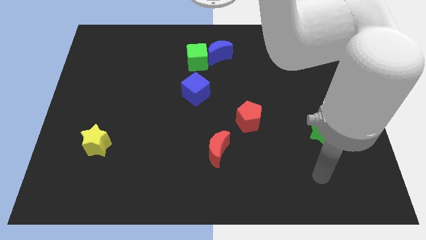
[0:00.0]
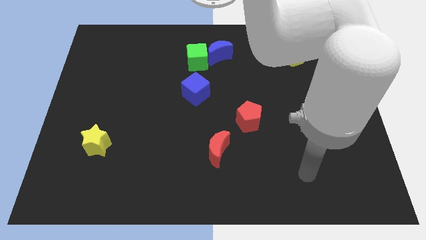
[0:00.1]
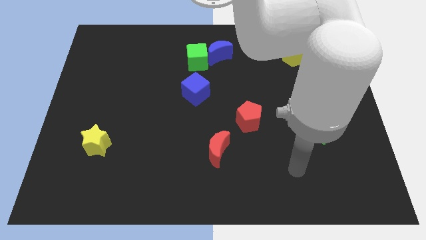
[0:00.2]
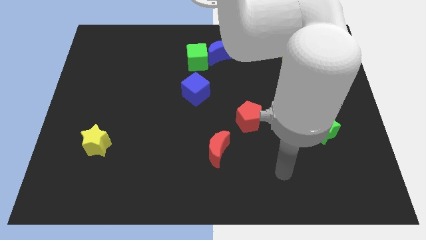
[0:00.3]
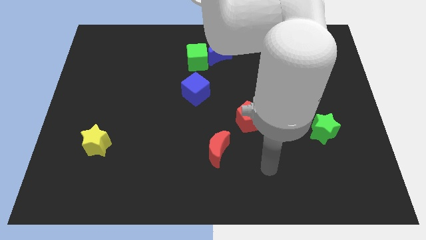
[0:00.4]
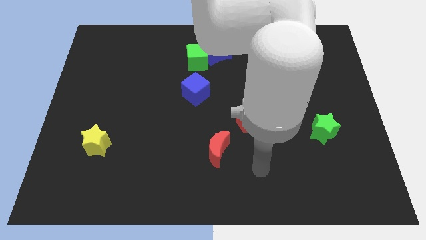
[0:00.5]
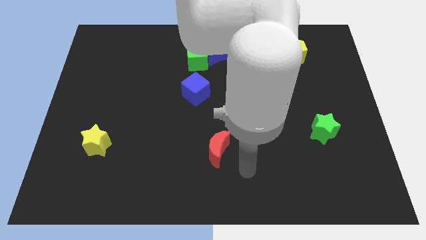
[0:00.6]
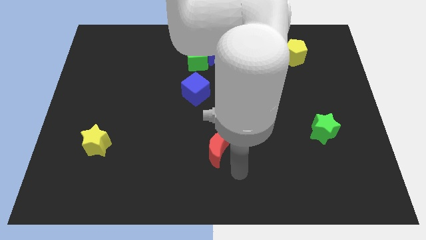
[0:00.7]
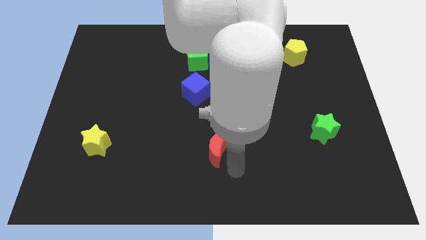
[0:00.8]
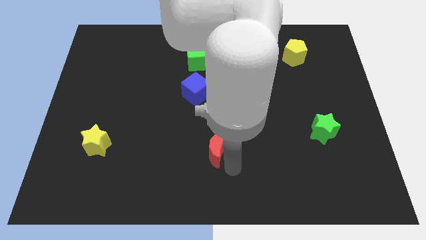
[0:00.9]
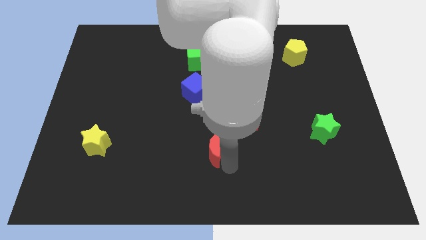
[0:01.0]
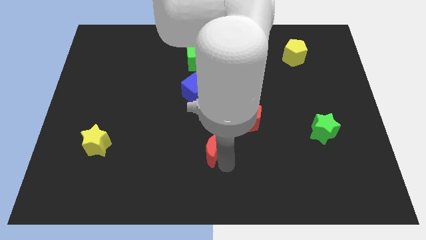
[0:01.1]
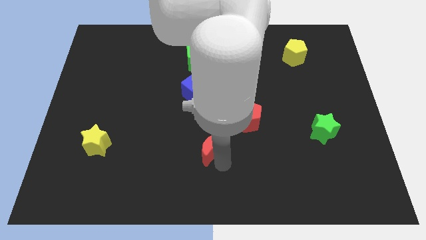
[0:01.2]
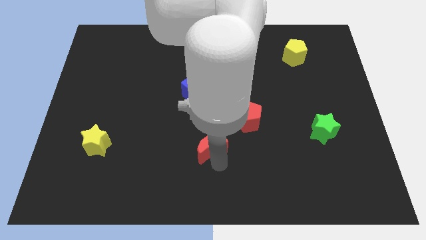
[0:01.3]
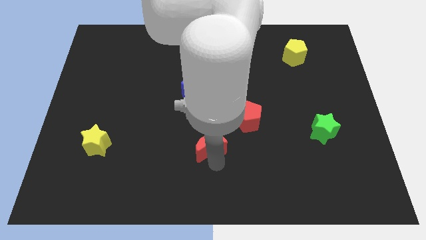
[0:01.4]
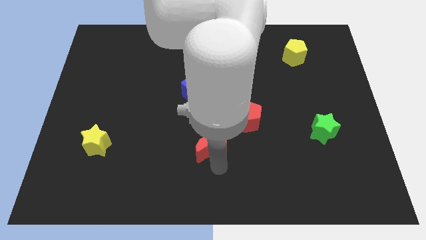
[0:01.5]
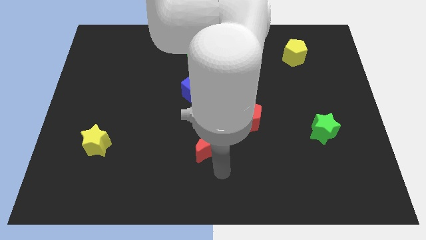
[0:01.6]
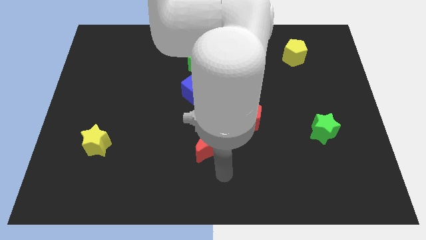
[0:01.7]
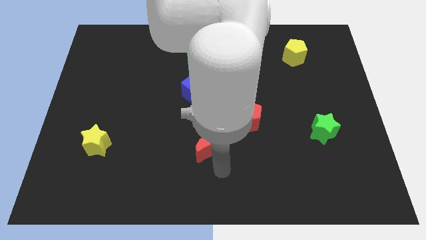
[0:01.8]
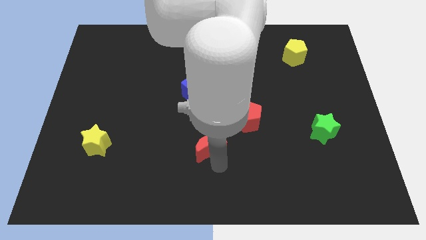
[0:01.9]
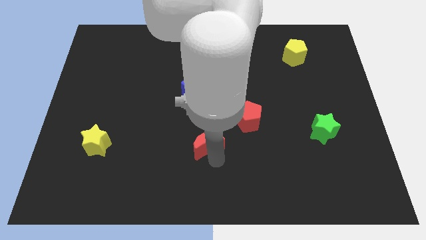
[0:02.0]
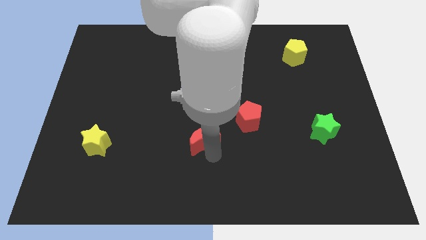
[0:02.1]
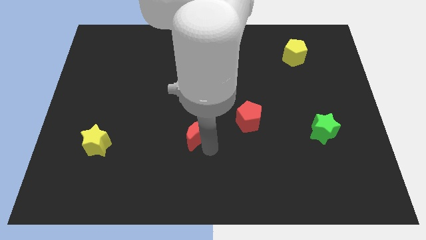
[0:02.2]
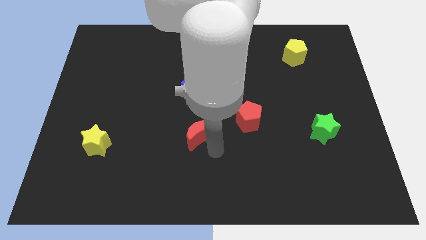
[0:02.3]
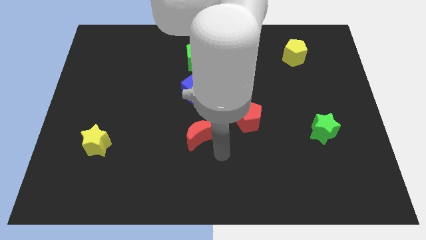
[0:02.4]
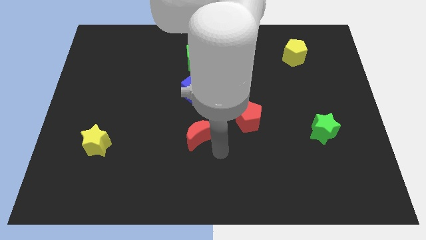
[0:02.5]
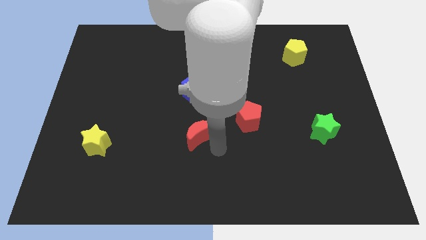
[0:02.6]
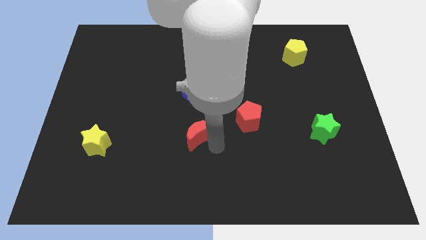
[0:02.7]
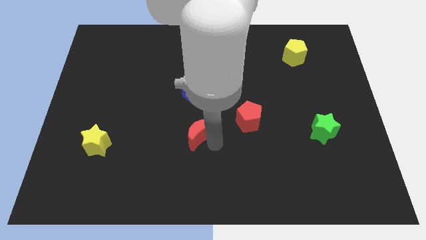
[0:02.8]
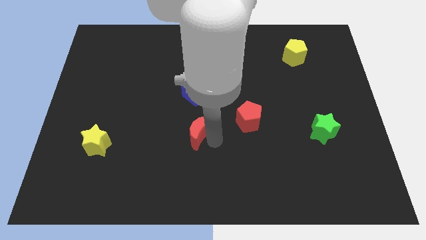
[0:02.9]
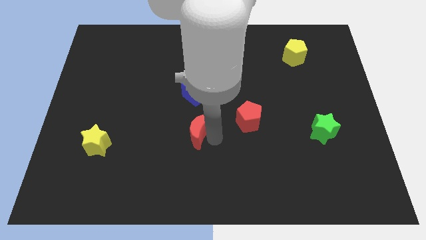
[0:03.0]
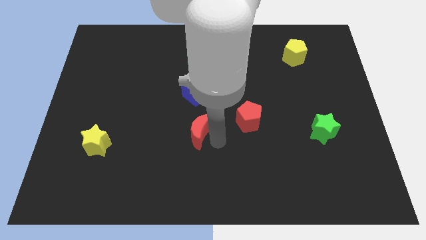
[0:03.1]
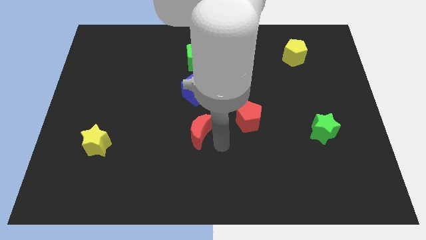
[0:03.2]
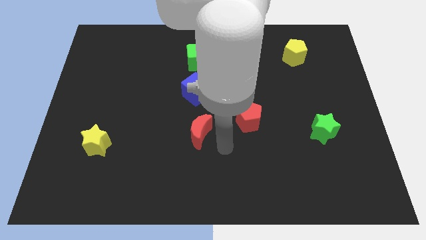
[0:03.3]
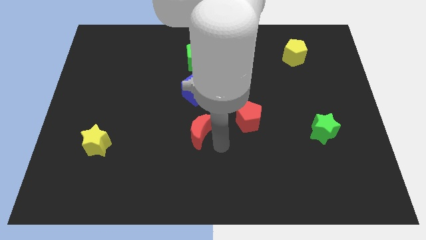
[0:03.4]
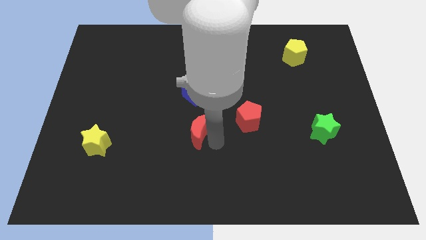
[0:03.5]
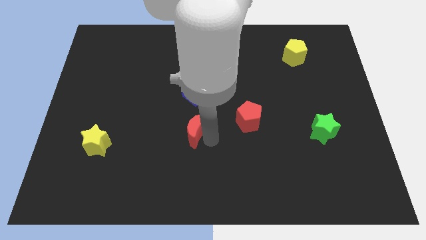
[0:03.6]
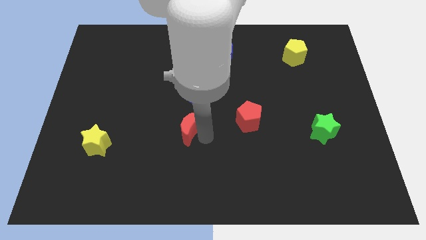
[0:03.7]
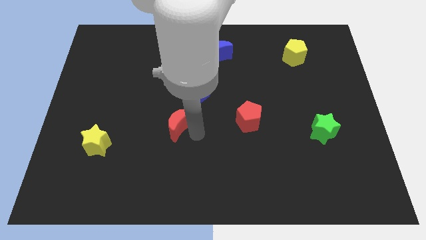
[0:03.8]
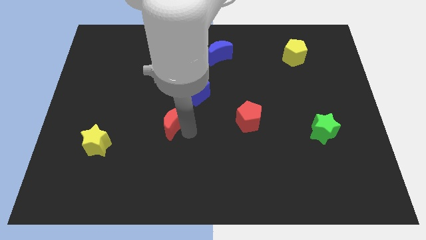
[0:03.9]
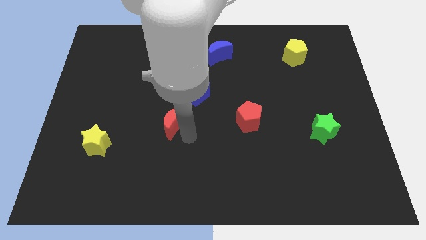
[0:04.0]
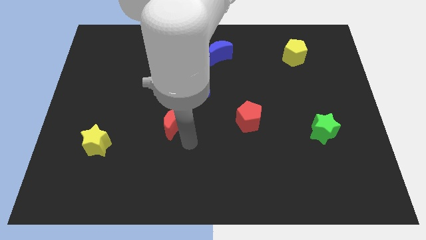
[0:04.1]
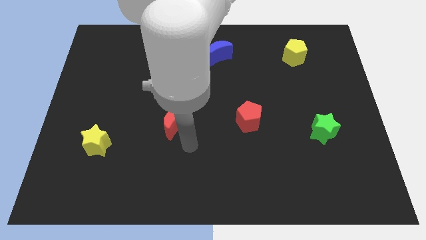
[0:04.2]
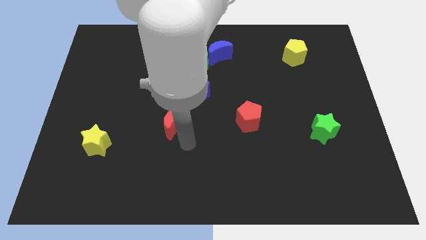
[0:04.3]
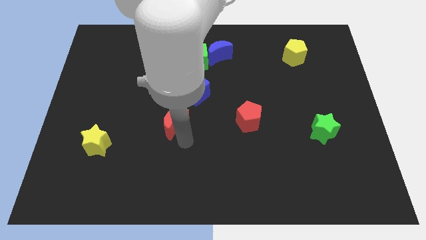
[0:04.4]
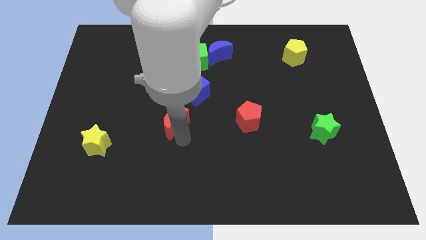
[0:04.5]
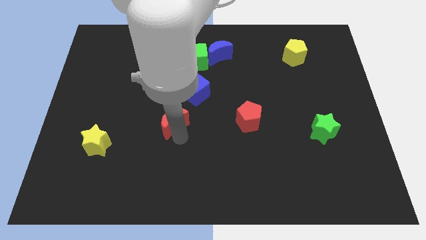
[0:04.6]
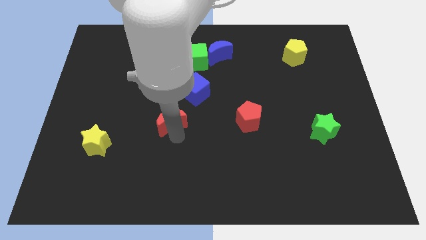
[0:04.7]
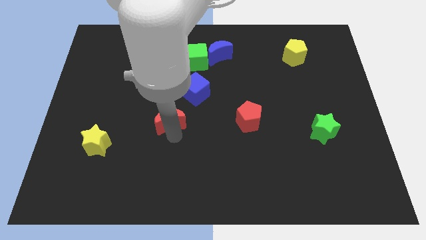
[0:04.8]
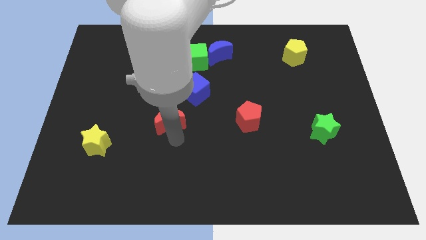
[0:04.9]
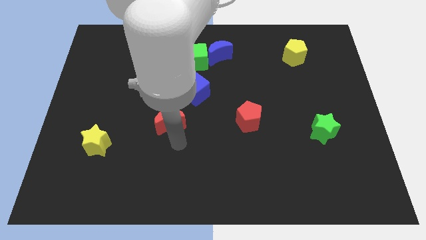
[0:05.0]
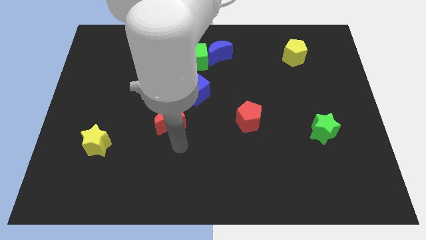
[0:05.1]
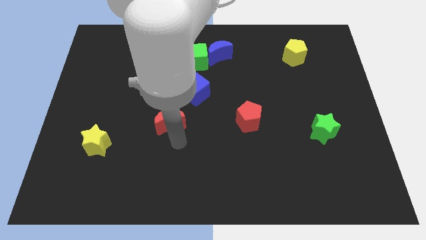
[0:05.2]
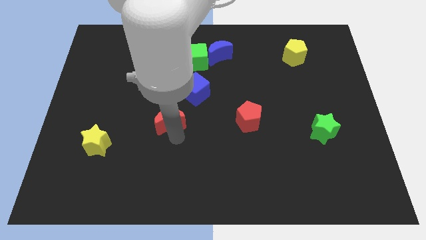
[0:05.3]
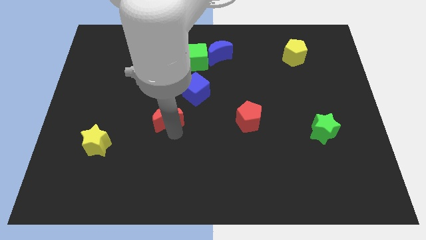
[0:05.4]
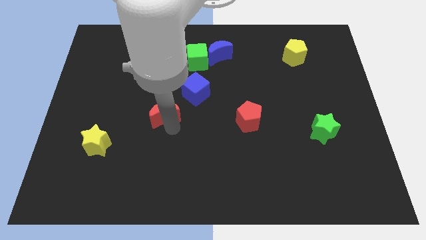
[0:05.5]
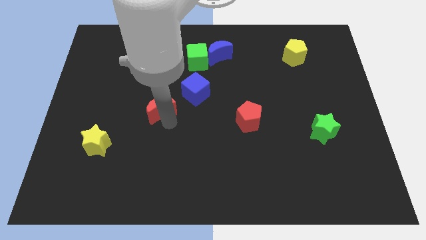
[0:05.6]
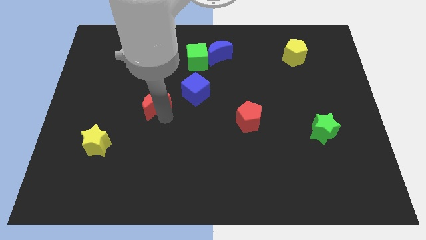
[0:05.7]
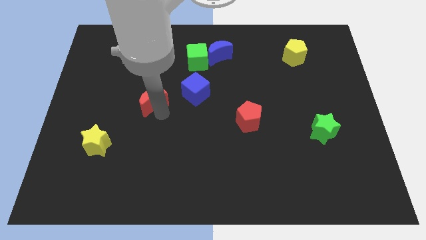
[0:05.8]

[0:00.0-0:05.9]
slide the red moon up and left

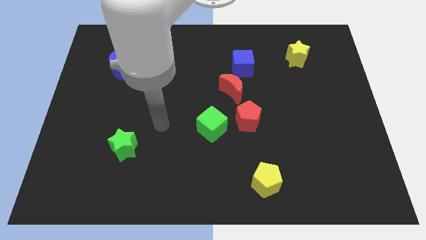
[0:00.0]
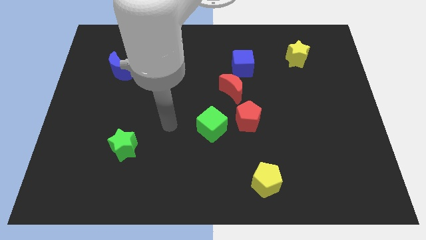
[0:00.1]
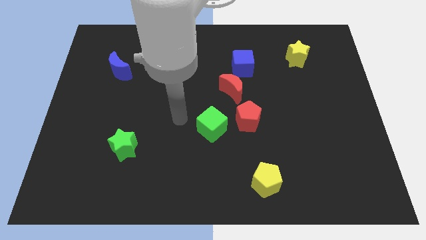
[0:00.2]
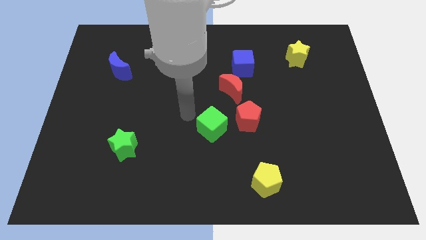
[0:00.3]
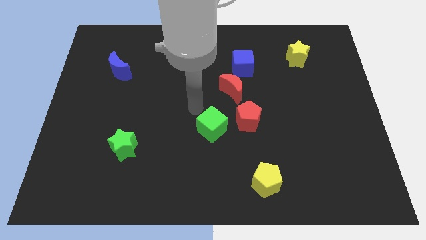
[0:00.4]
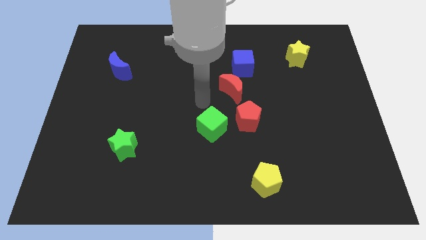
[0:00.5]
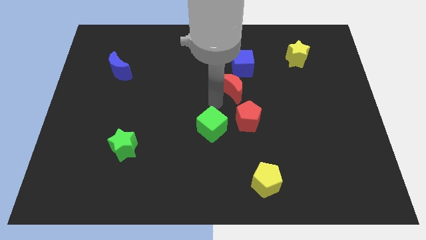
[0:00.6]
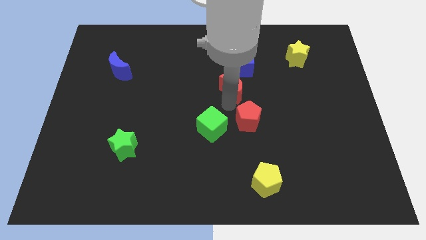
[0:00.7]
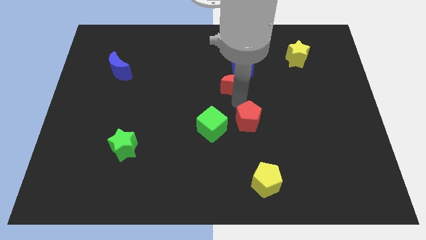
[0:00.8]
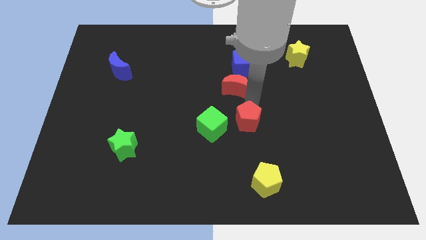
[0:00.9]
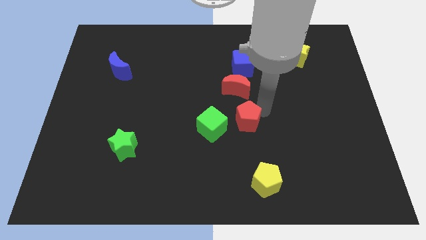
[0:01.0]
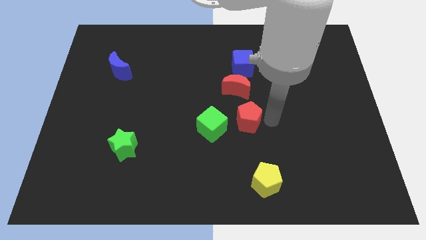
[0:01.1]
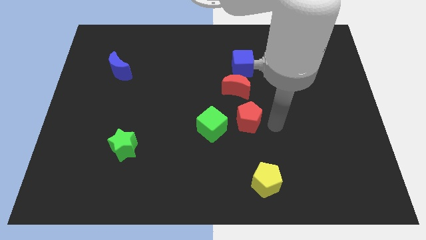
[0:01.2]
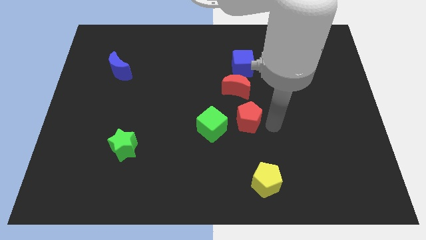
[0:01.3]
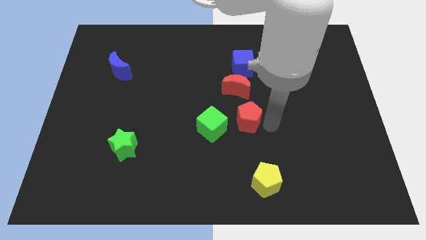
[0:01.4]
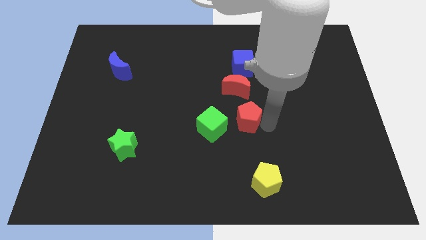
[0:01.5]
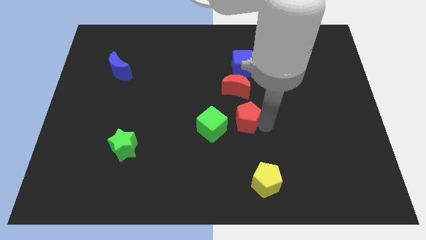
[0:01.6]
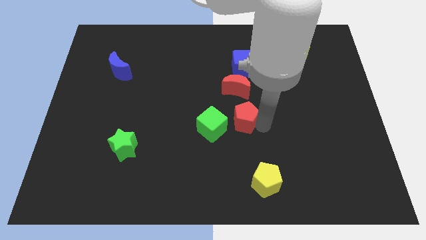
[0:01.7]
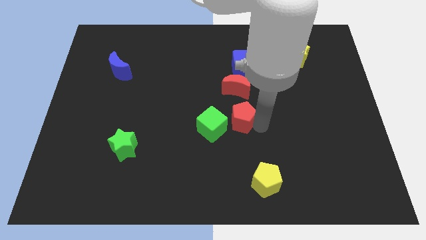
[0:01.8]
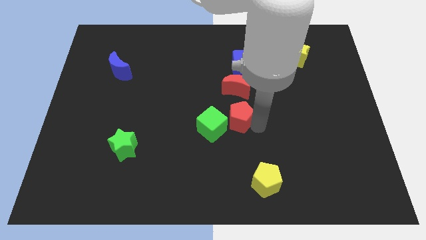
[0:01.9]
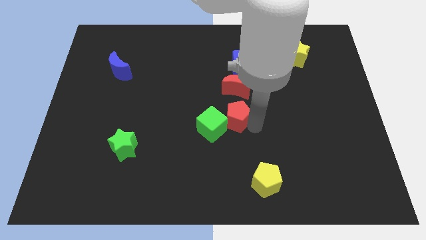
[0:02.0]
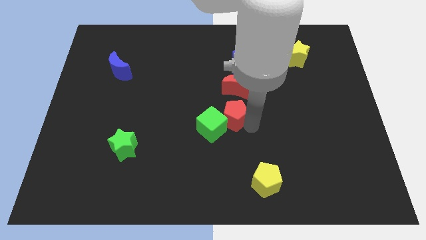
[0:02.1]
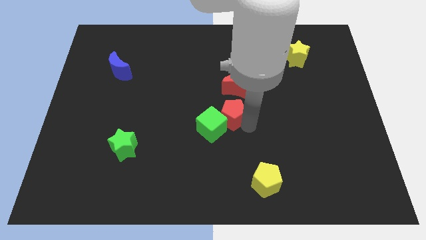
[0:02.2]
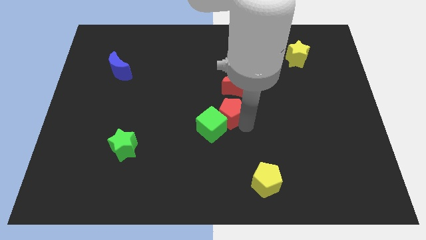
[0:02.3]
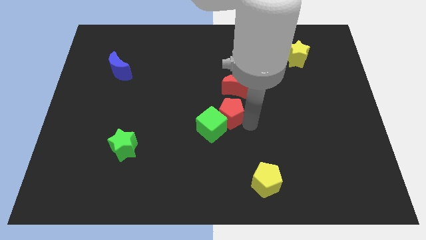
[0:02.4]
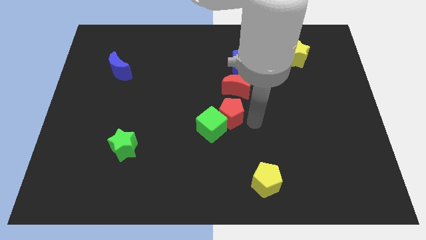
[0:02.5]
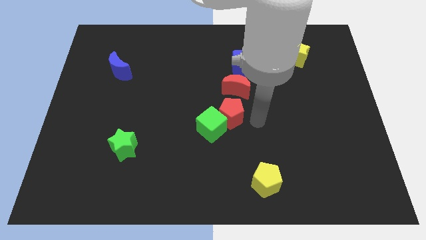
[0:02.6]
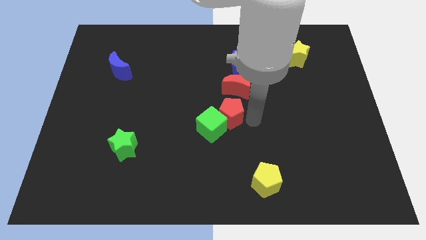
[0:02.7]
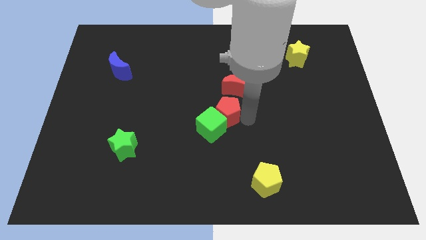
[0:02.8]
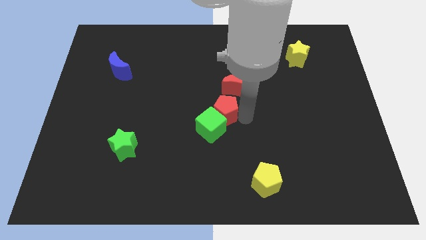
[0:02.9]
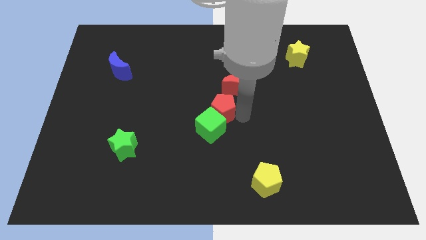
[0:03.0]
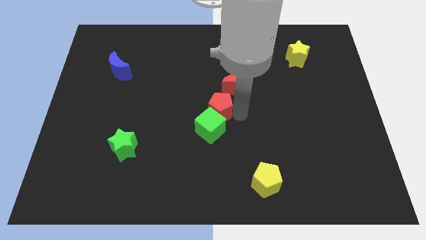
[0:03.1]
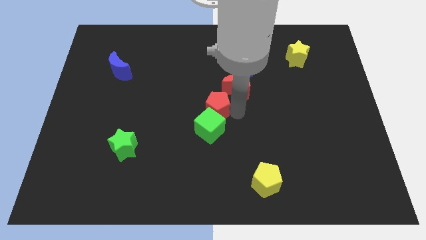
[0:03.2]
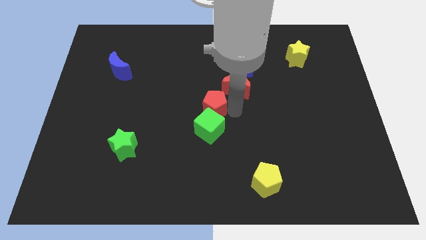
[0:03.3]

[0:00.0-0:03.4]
move the red pentagon to the left slightly
